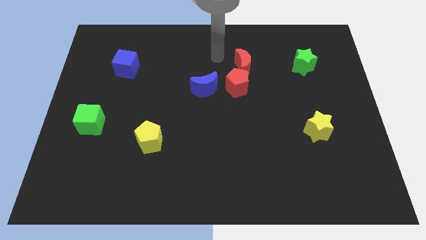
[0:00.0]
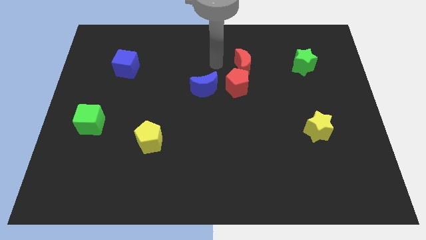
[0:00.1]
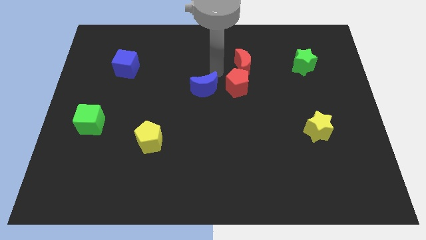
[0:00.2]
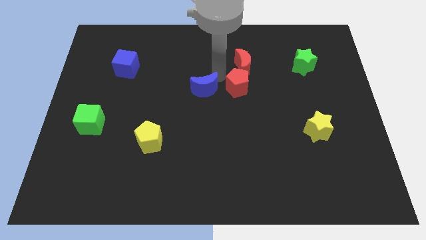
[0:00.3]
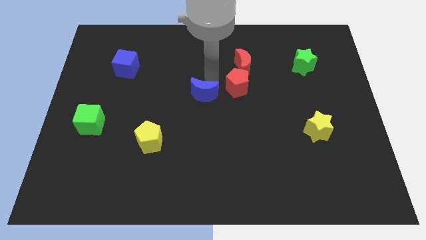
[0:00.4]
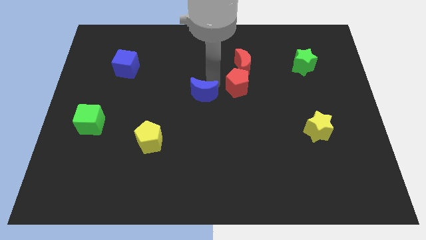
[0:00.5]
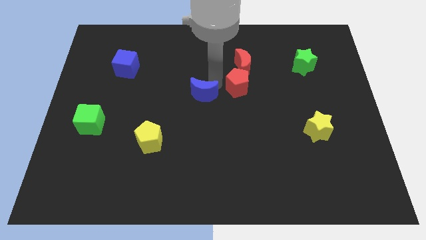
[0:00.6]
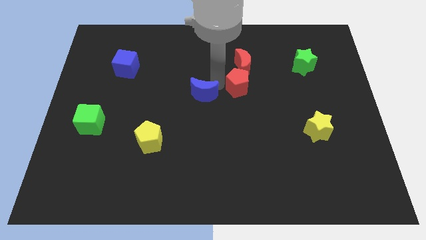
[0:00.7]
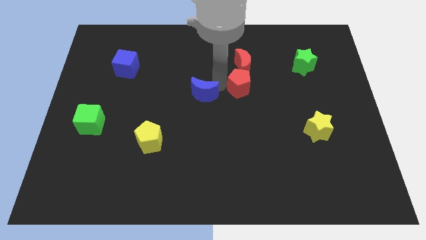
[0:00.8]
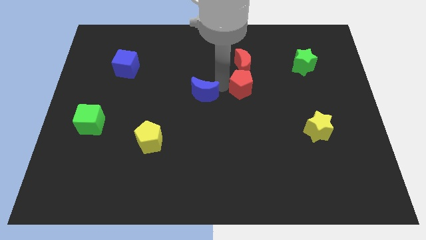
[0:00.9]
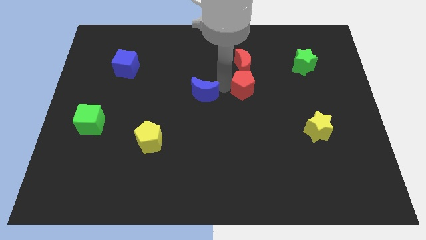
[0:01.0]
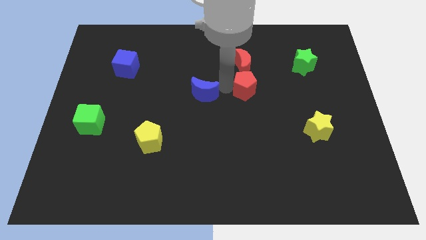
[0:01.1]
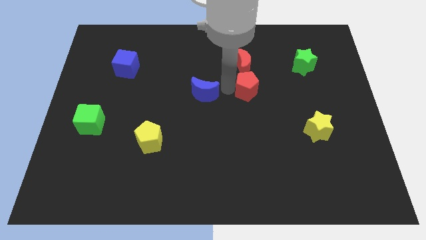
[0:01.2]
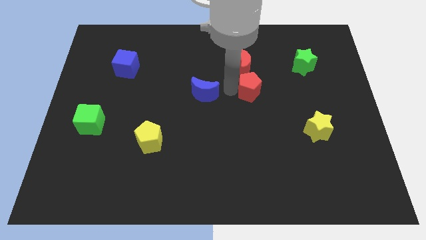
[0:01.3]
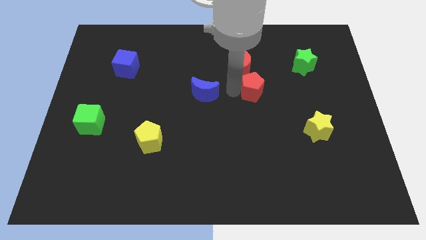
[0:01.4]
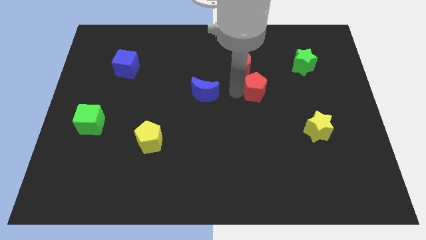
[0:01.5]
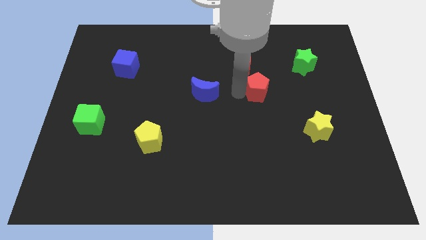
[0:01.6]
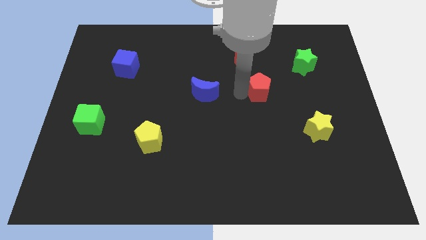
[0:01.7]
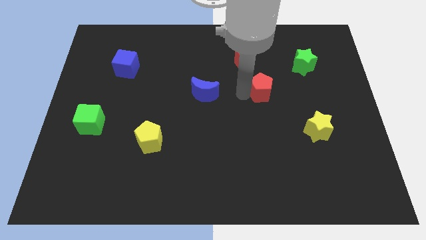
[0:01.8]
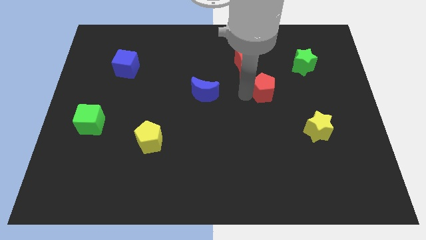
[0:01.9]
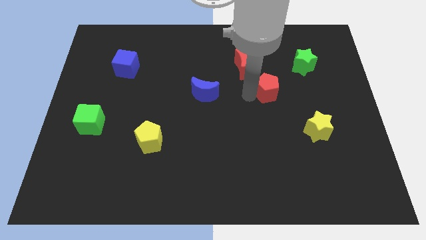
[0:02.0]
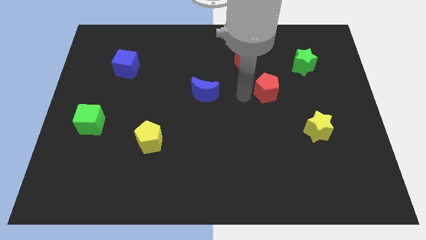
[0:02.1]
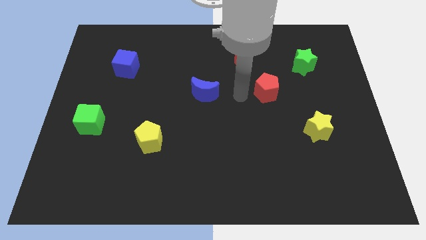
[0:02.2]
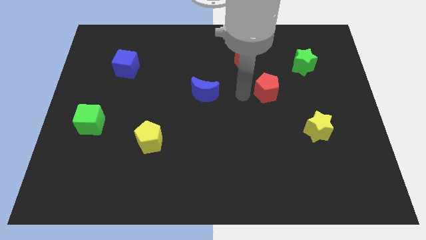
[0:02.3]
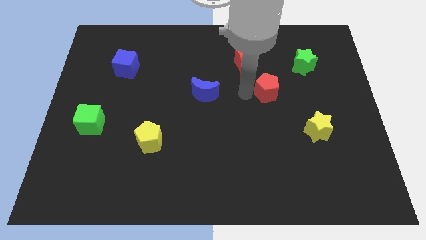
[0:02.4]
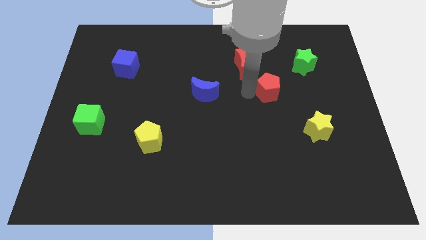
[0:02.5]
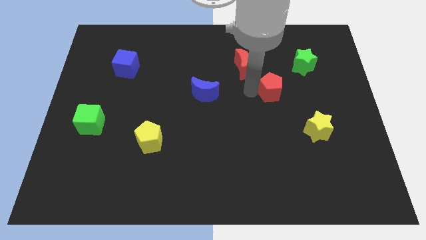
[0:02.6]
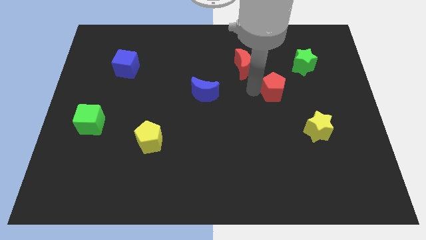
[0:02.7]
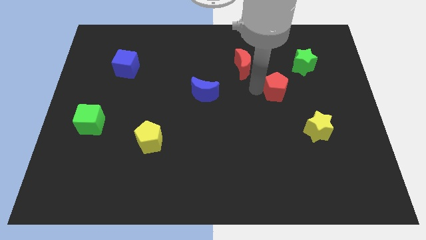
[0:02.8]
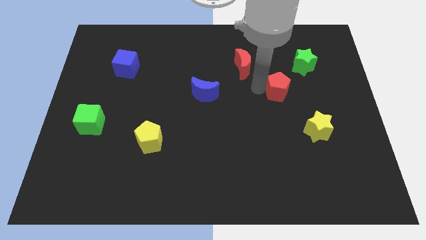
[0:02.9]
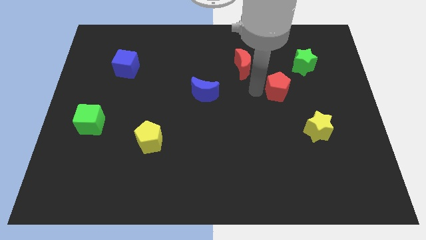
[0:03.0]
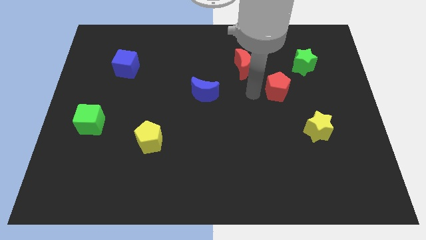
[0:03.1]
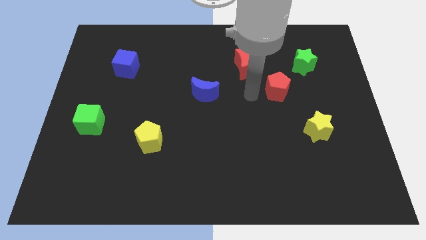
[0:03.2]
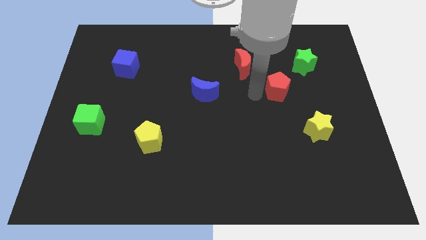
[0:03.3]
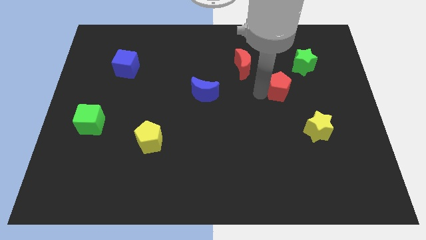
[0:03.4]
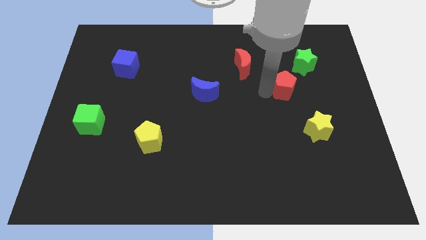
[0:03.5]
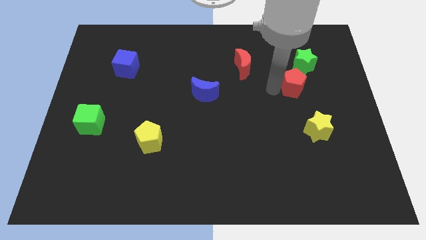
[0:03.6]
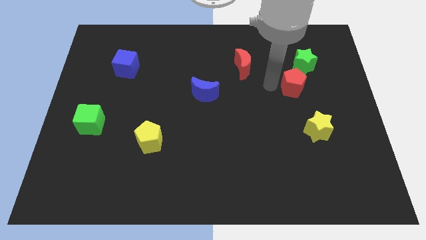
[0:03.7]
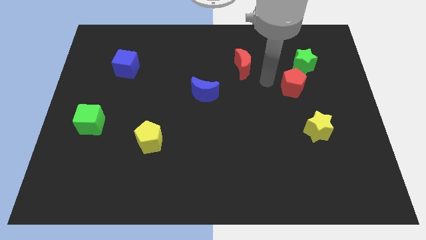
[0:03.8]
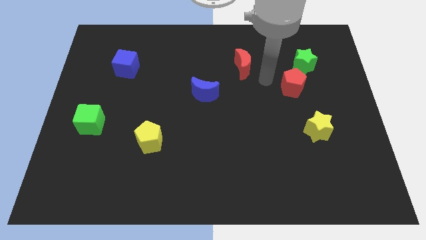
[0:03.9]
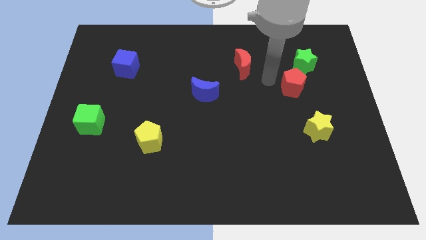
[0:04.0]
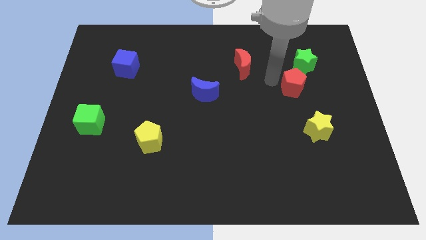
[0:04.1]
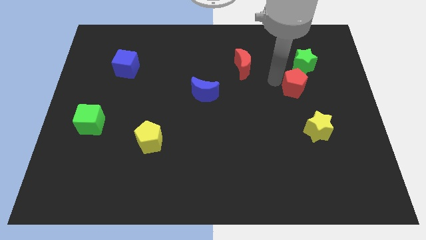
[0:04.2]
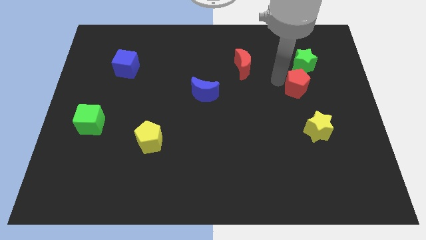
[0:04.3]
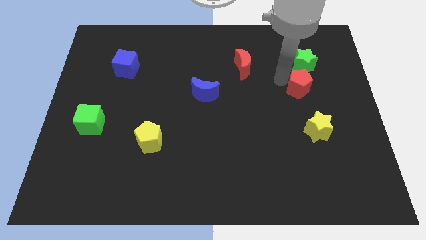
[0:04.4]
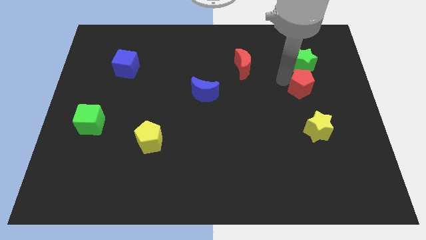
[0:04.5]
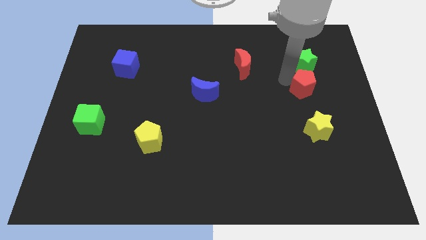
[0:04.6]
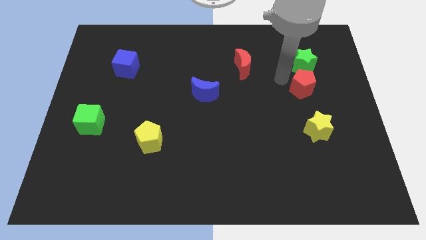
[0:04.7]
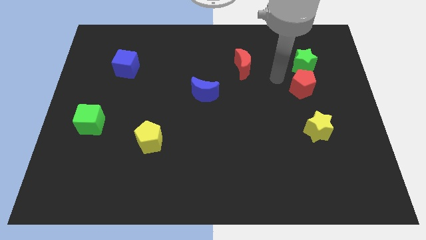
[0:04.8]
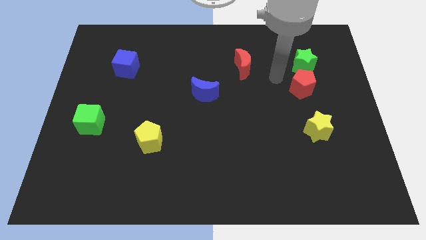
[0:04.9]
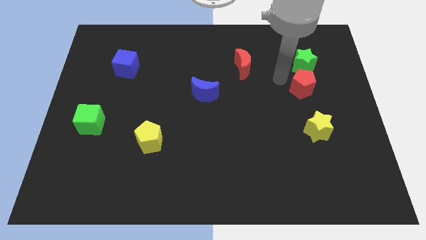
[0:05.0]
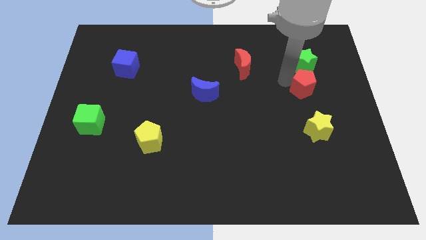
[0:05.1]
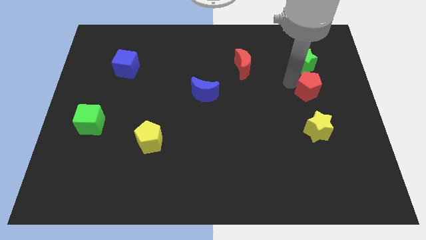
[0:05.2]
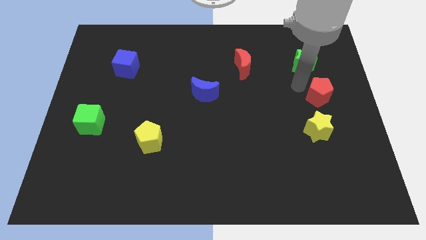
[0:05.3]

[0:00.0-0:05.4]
move the red pentagon to the center right
